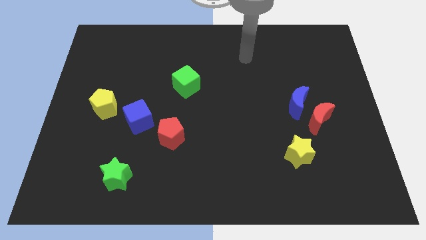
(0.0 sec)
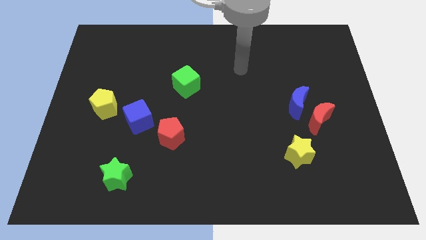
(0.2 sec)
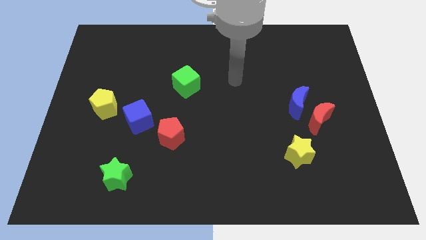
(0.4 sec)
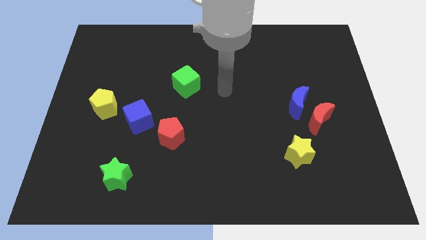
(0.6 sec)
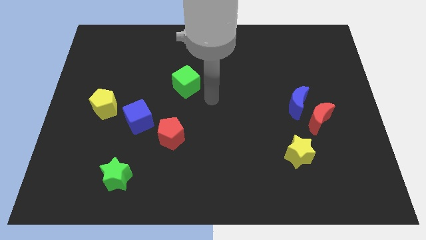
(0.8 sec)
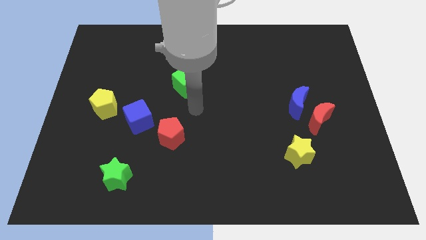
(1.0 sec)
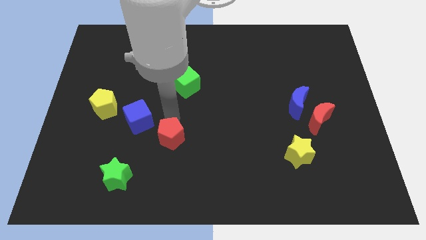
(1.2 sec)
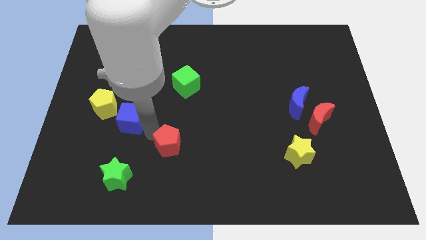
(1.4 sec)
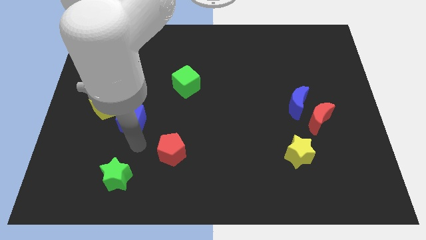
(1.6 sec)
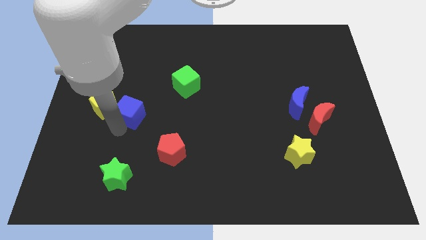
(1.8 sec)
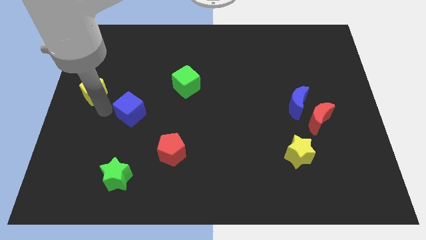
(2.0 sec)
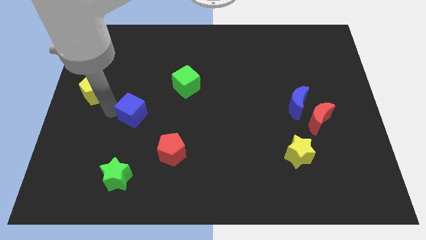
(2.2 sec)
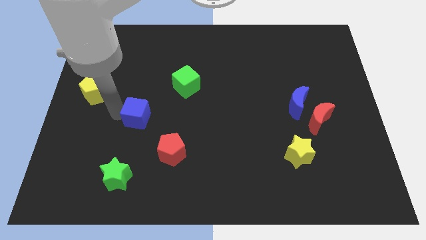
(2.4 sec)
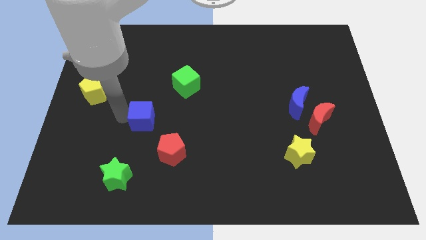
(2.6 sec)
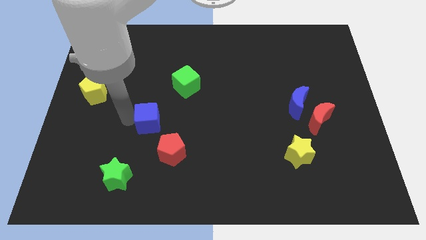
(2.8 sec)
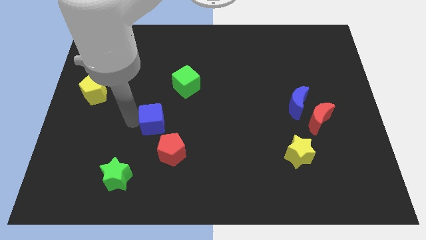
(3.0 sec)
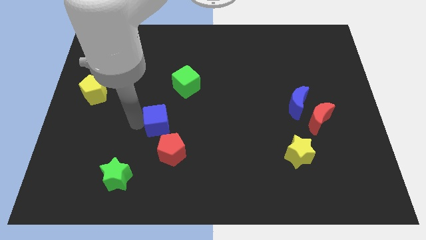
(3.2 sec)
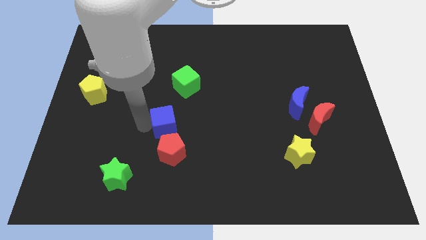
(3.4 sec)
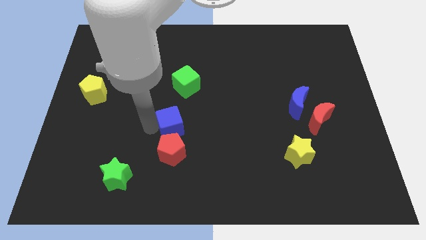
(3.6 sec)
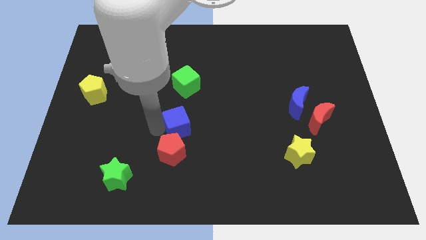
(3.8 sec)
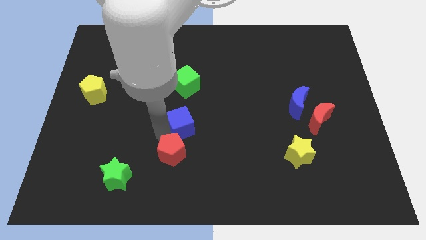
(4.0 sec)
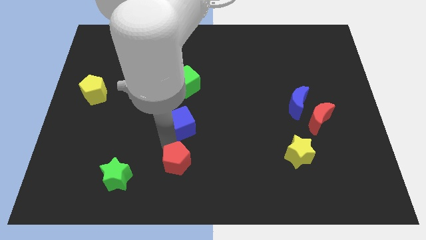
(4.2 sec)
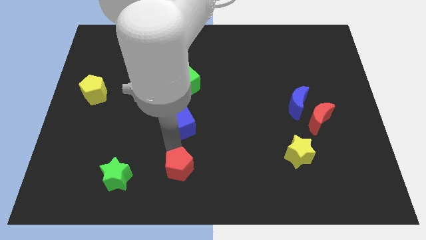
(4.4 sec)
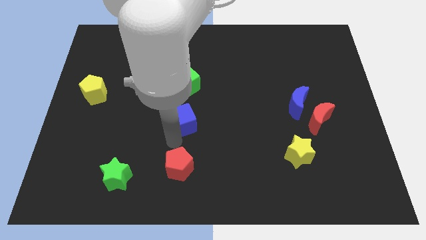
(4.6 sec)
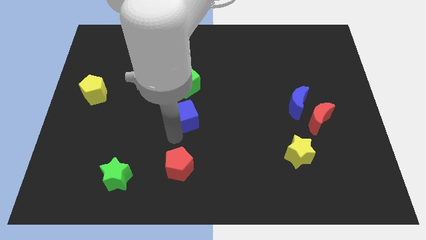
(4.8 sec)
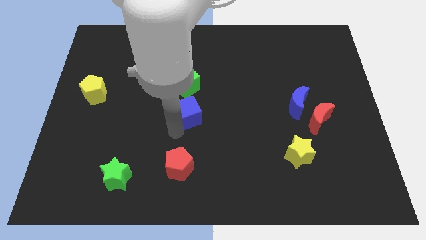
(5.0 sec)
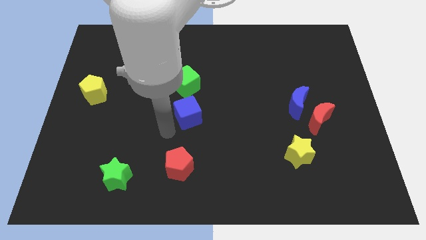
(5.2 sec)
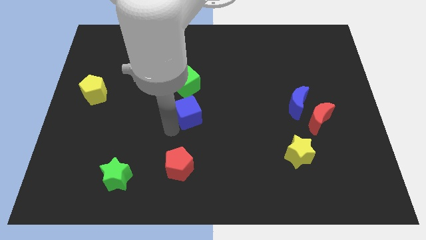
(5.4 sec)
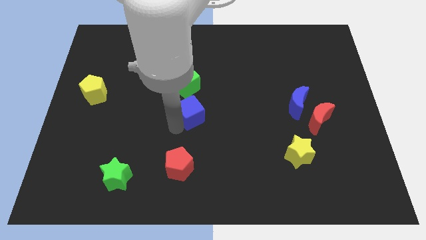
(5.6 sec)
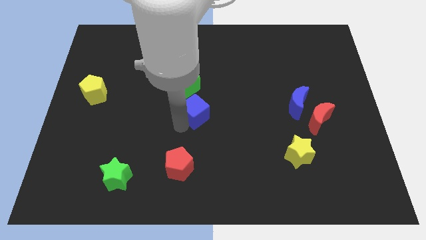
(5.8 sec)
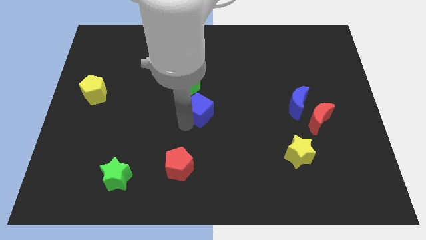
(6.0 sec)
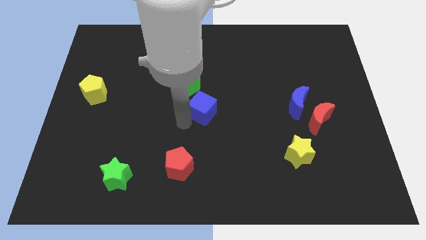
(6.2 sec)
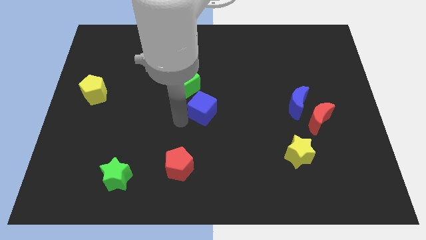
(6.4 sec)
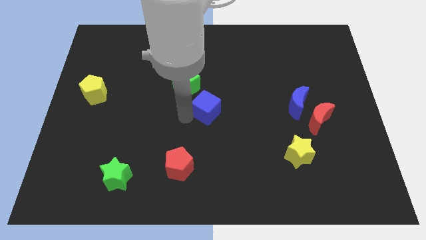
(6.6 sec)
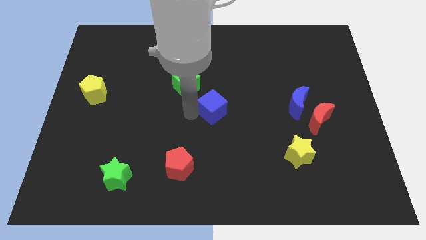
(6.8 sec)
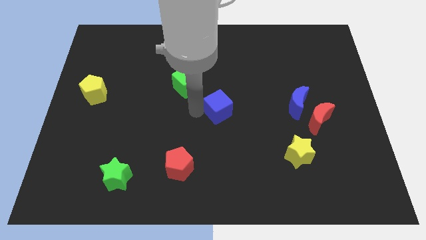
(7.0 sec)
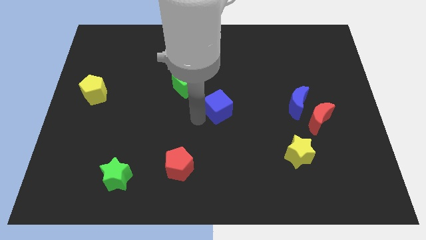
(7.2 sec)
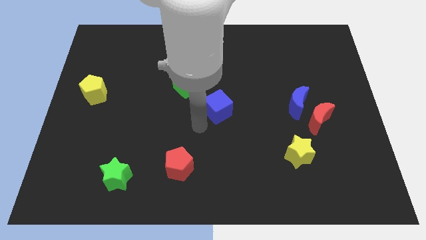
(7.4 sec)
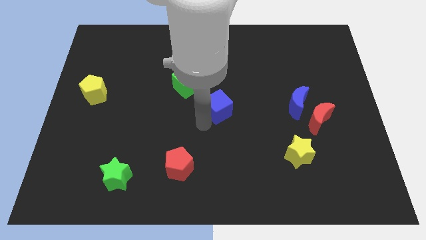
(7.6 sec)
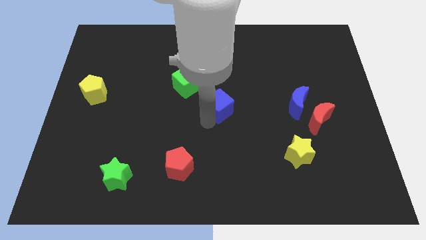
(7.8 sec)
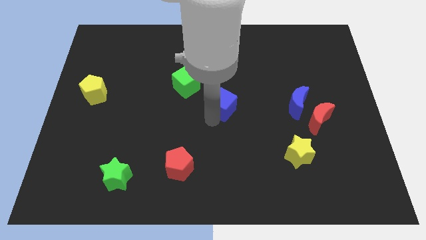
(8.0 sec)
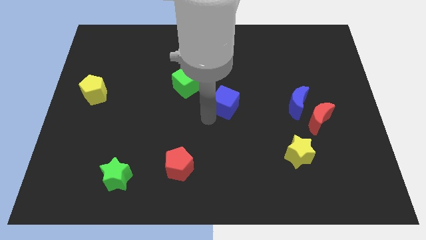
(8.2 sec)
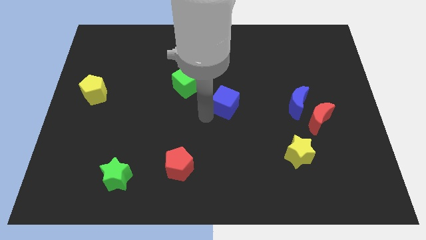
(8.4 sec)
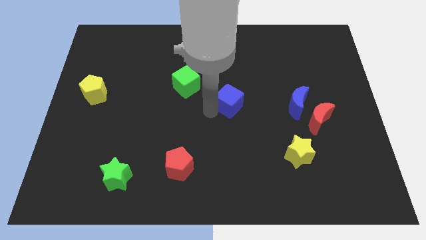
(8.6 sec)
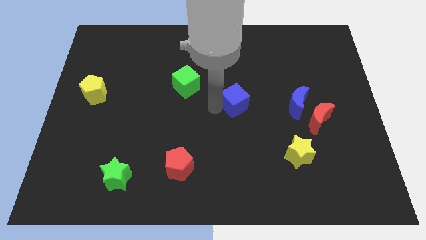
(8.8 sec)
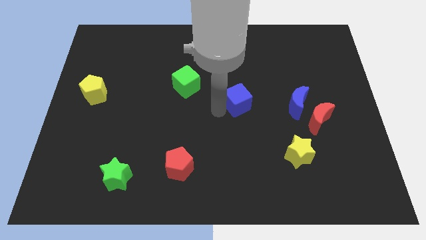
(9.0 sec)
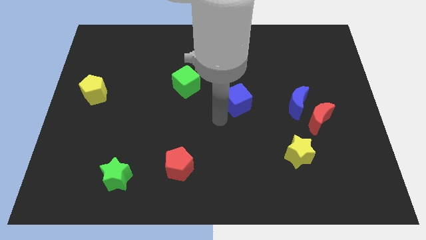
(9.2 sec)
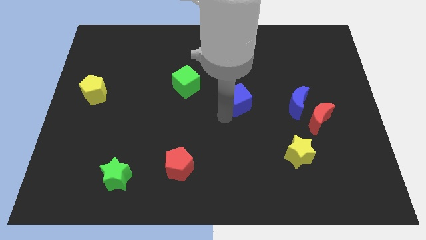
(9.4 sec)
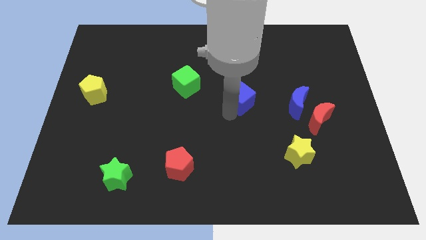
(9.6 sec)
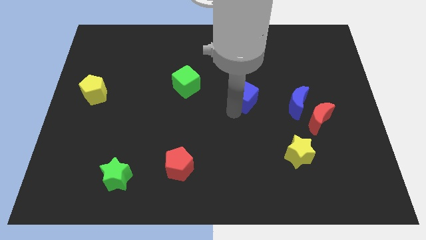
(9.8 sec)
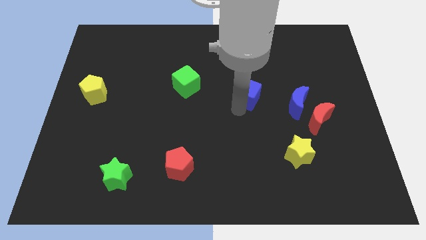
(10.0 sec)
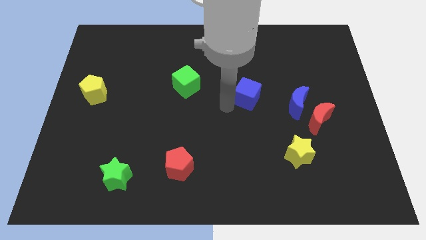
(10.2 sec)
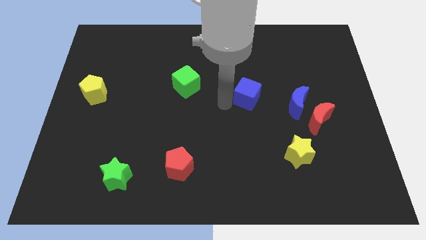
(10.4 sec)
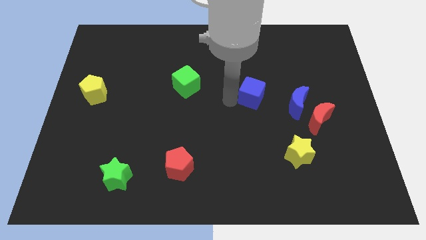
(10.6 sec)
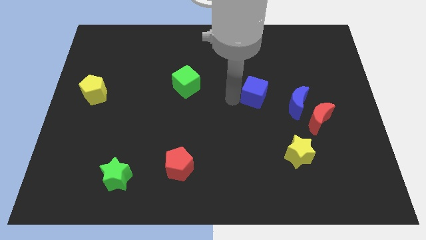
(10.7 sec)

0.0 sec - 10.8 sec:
push the blue cube diagonally up and to the left of the blue moon

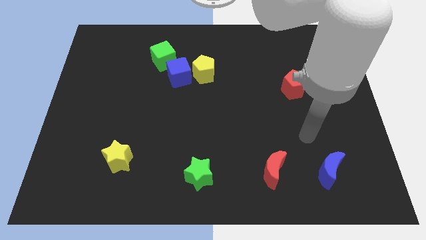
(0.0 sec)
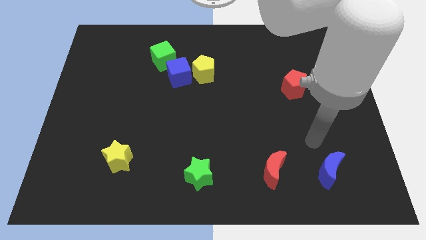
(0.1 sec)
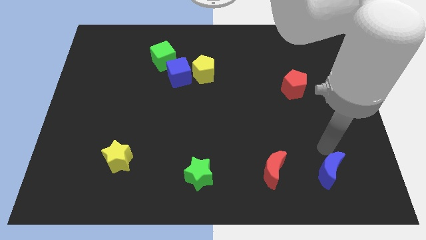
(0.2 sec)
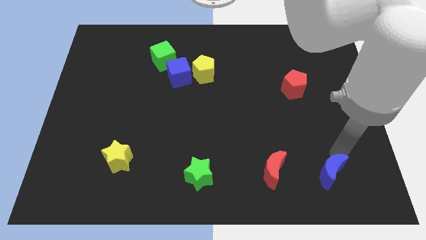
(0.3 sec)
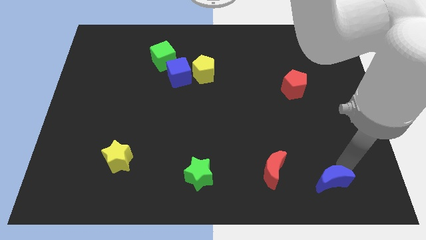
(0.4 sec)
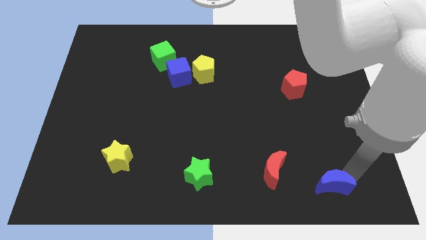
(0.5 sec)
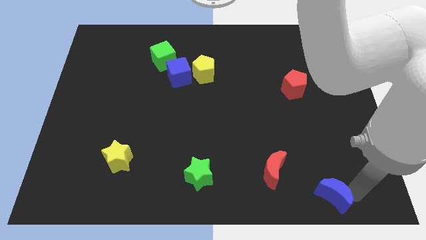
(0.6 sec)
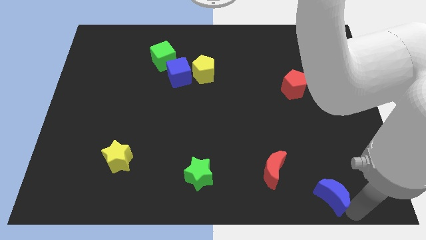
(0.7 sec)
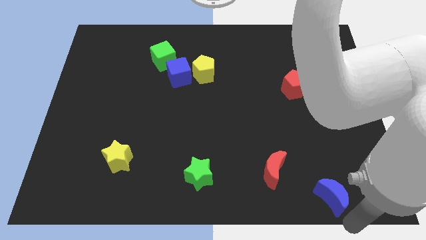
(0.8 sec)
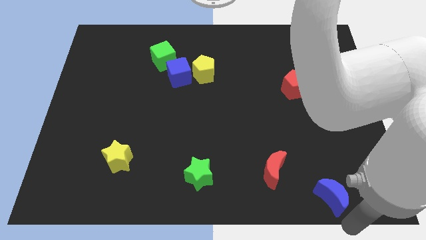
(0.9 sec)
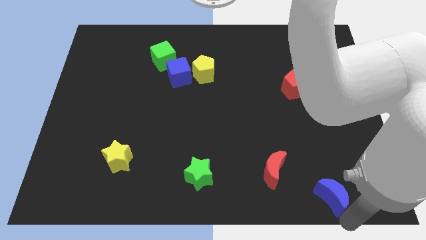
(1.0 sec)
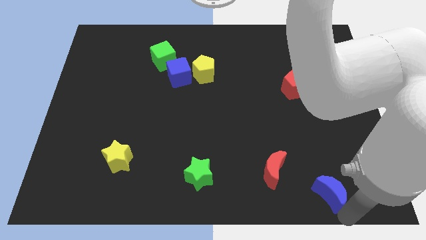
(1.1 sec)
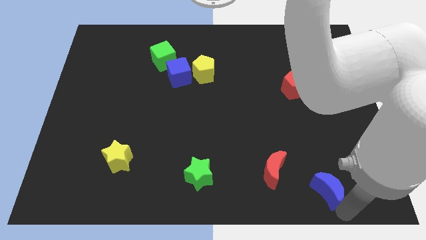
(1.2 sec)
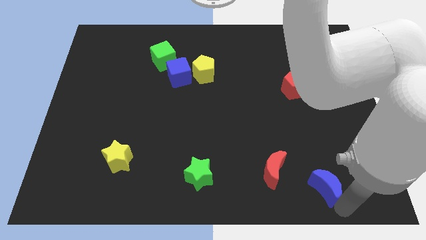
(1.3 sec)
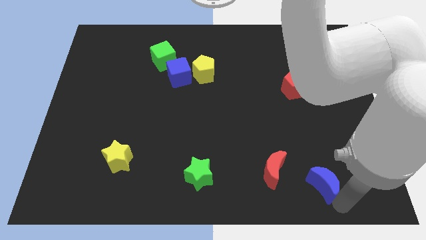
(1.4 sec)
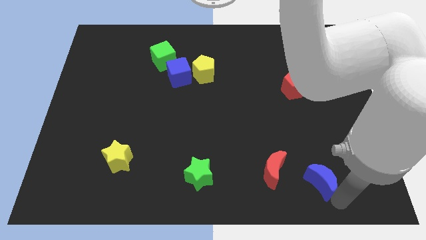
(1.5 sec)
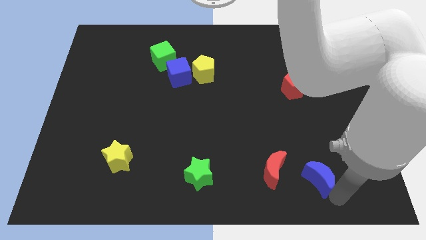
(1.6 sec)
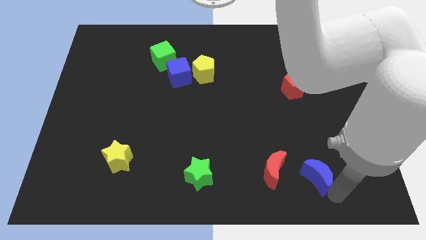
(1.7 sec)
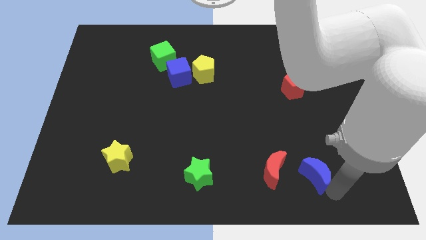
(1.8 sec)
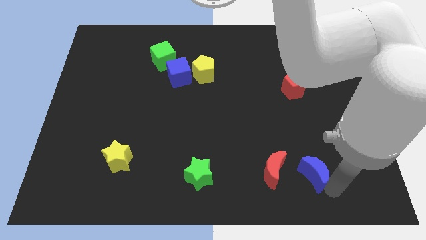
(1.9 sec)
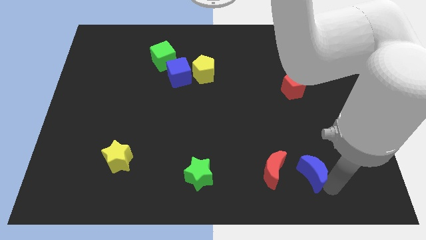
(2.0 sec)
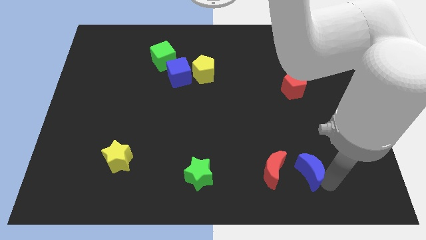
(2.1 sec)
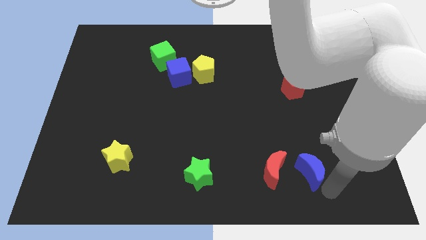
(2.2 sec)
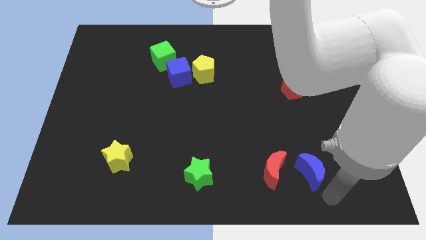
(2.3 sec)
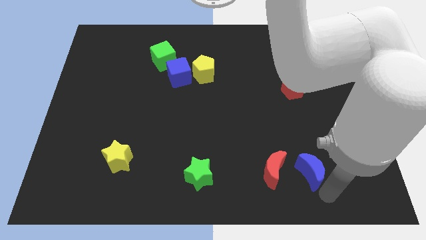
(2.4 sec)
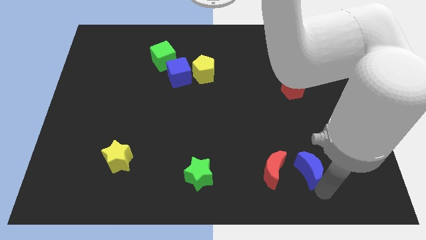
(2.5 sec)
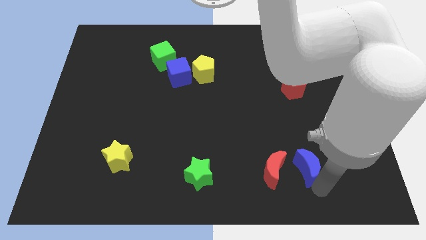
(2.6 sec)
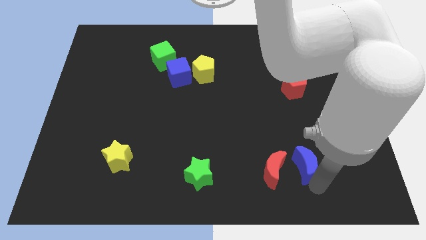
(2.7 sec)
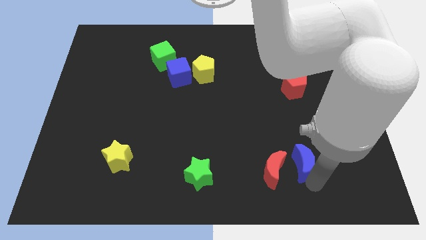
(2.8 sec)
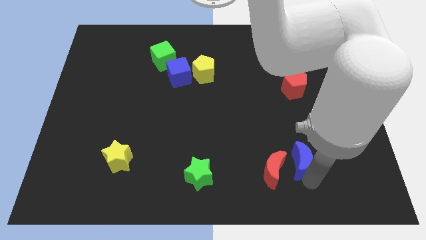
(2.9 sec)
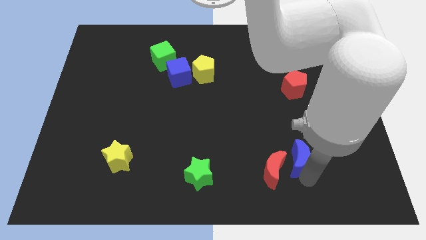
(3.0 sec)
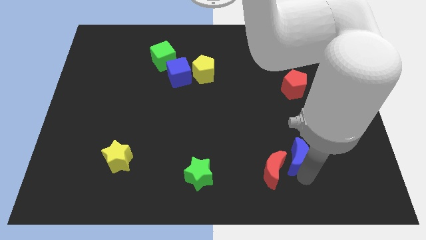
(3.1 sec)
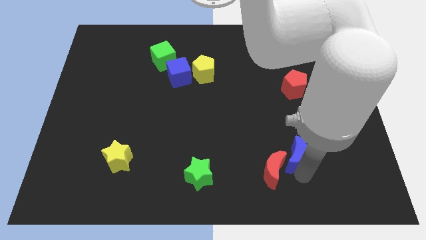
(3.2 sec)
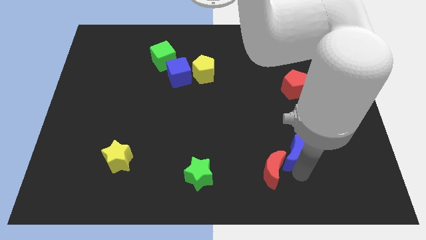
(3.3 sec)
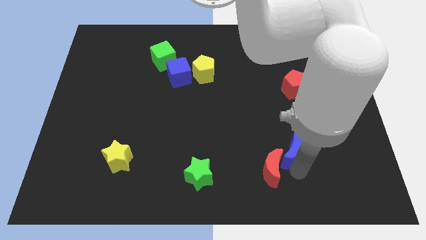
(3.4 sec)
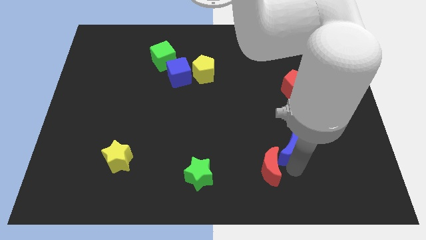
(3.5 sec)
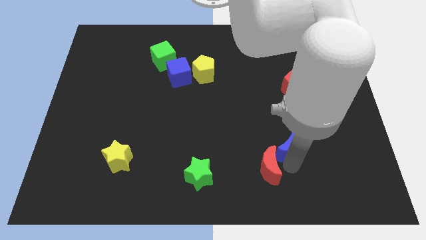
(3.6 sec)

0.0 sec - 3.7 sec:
move the blue moon to the top side of the red moon
